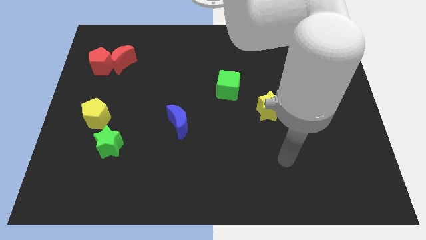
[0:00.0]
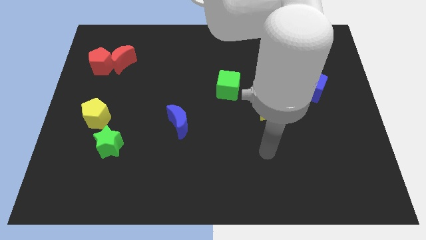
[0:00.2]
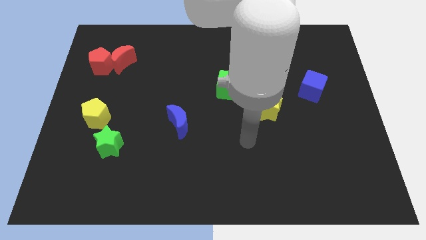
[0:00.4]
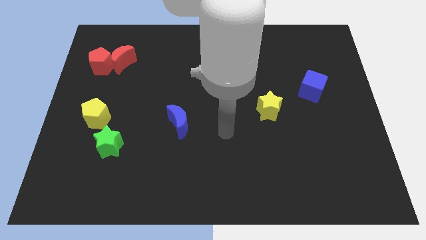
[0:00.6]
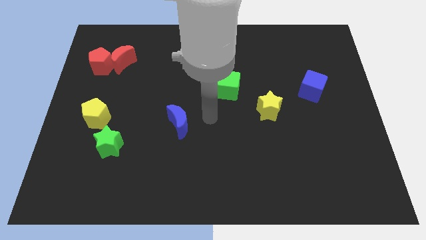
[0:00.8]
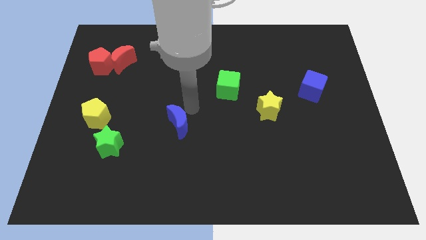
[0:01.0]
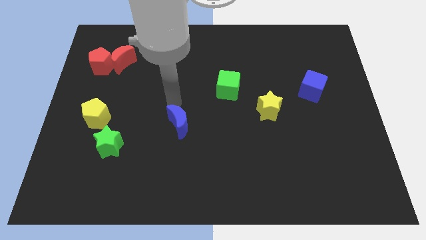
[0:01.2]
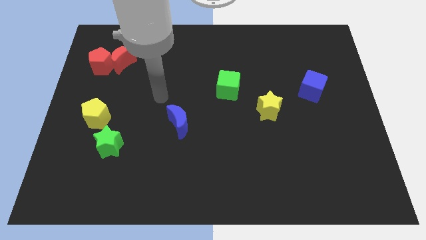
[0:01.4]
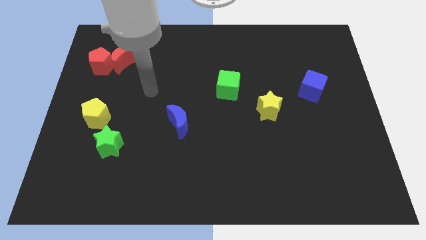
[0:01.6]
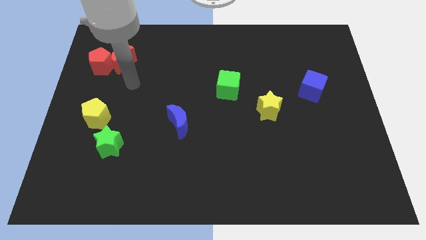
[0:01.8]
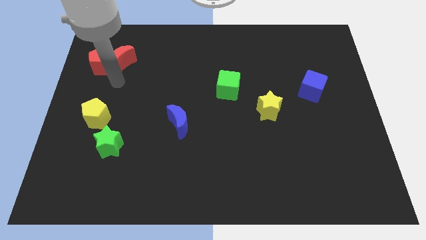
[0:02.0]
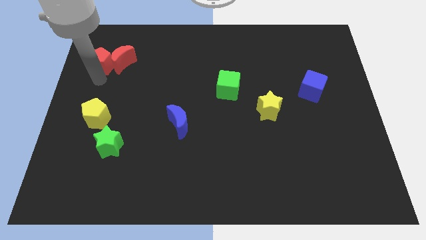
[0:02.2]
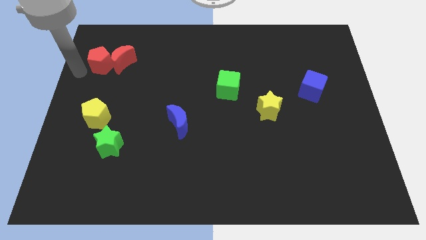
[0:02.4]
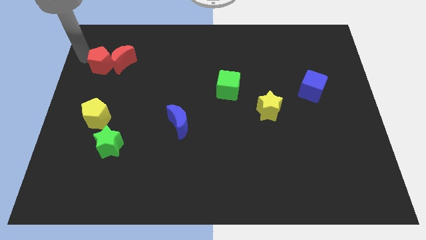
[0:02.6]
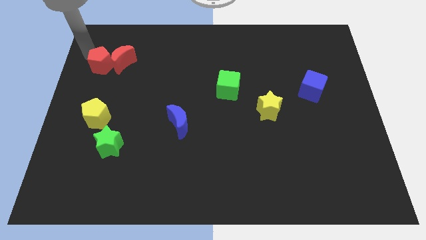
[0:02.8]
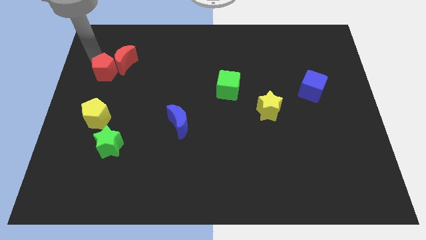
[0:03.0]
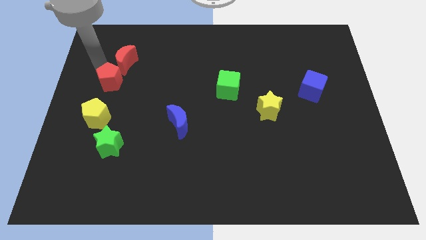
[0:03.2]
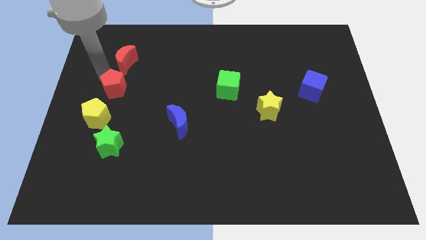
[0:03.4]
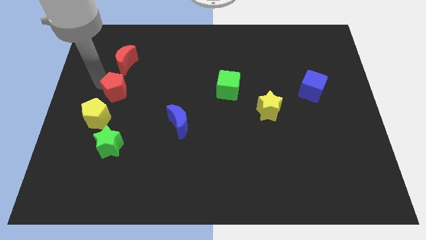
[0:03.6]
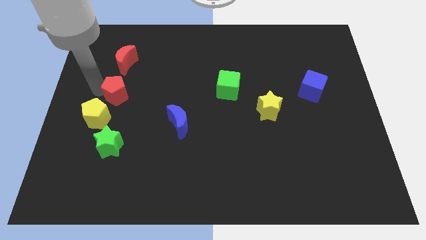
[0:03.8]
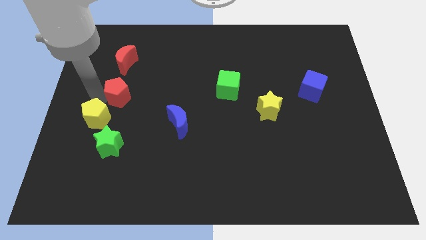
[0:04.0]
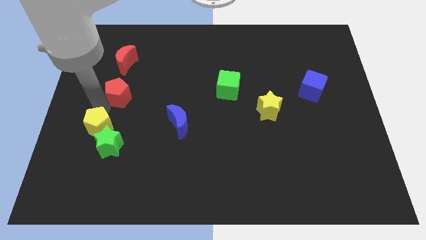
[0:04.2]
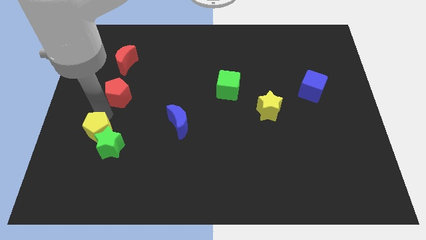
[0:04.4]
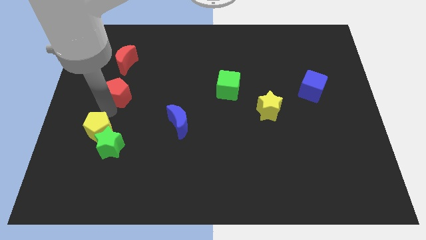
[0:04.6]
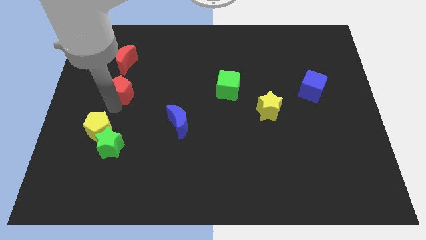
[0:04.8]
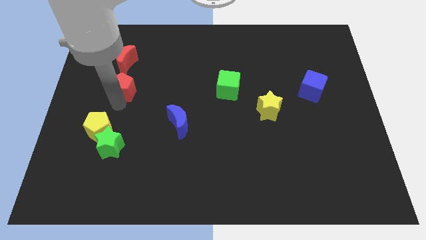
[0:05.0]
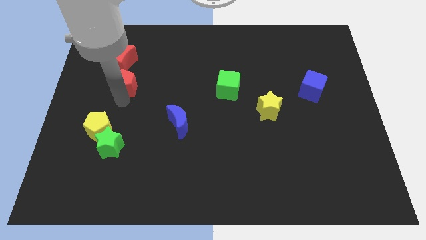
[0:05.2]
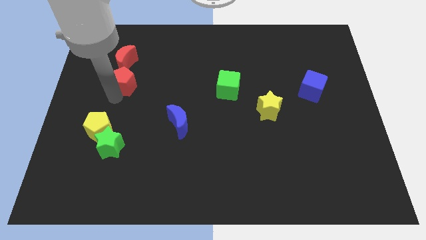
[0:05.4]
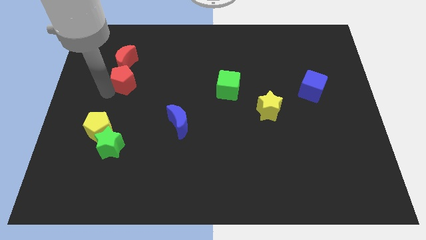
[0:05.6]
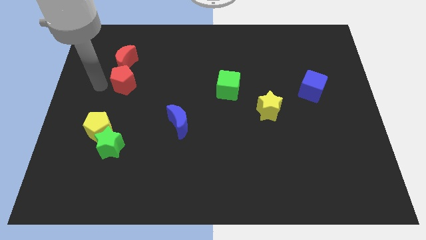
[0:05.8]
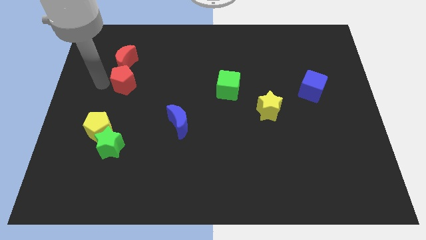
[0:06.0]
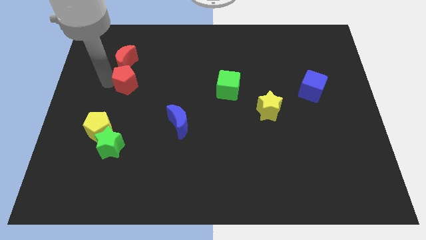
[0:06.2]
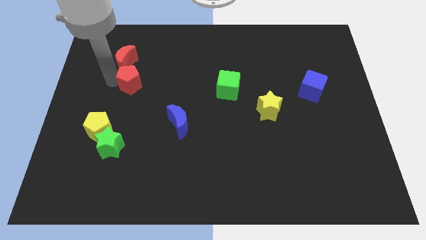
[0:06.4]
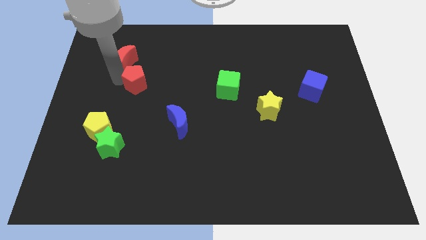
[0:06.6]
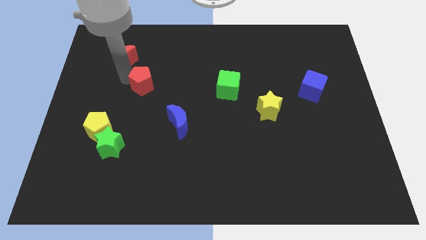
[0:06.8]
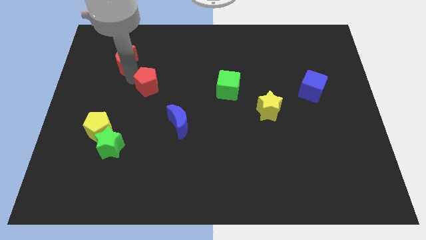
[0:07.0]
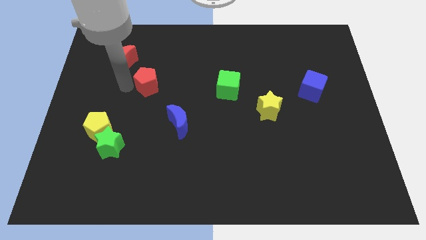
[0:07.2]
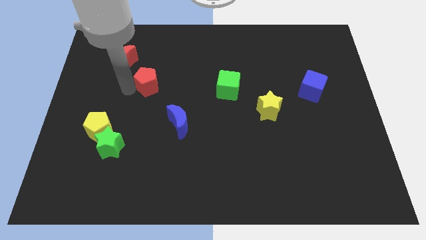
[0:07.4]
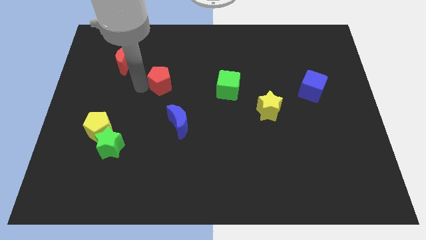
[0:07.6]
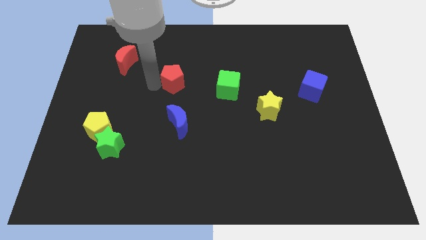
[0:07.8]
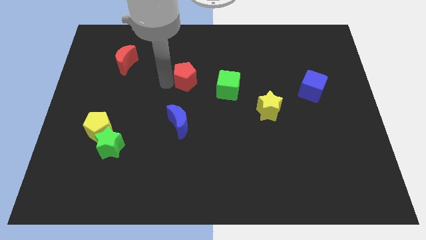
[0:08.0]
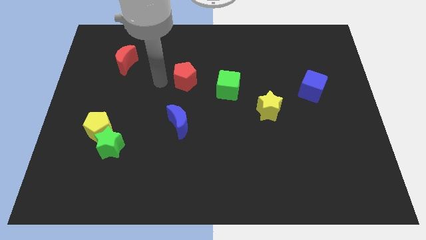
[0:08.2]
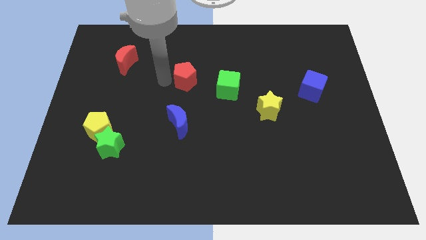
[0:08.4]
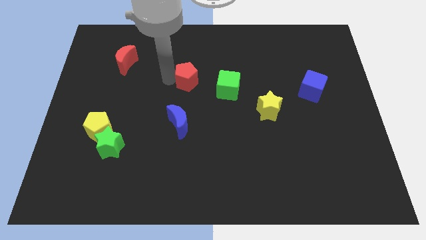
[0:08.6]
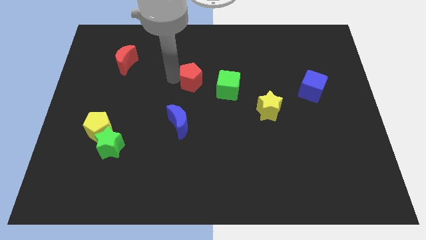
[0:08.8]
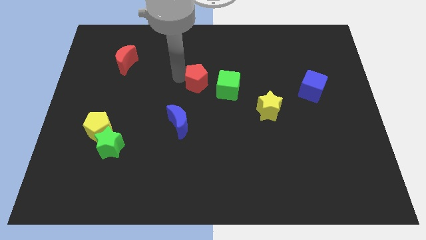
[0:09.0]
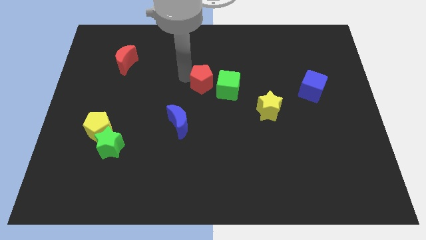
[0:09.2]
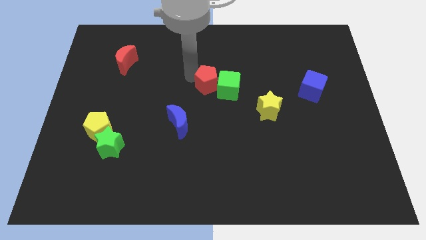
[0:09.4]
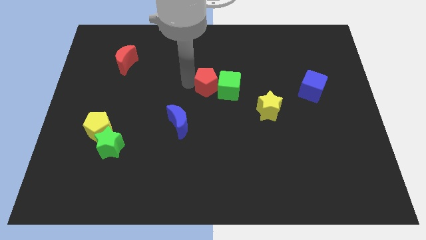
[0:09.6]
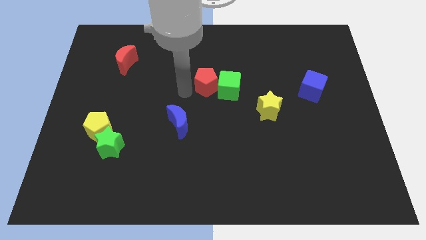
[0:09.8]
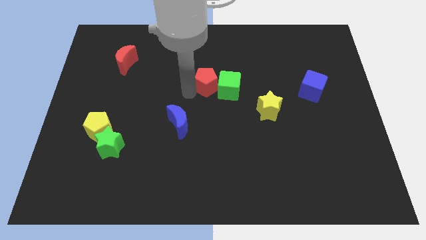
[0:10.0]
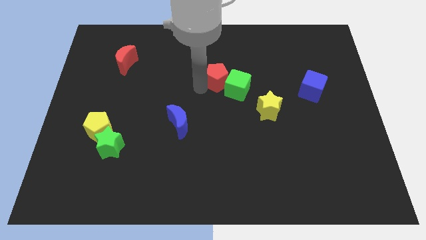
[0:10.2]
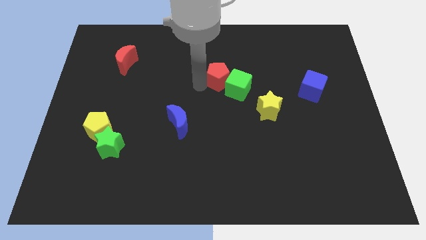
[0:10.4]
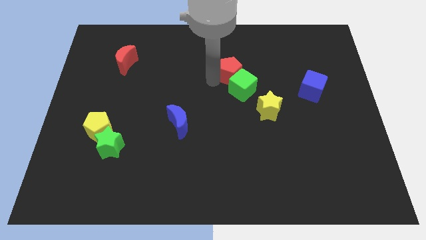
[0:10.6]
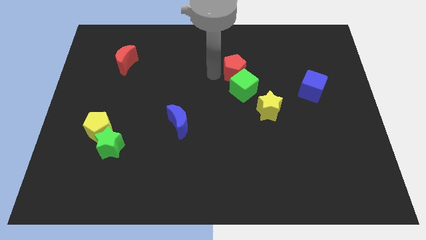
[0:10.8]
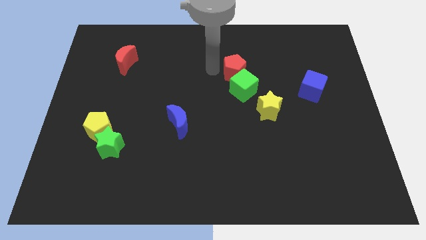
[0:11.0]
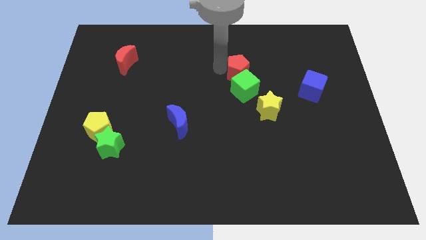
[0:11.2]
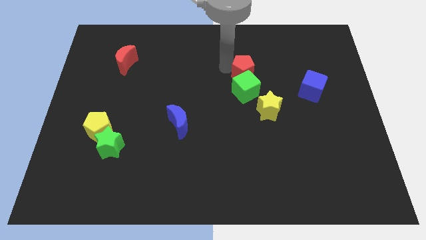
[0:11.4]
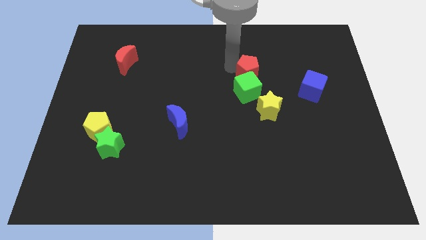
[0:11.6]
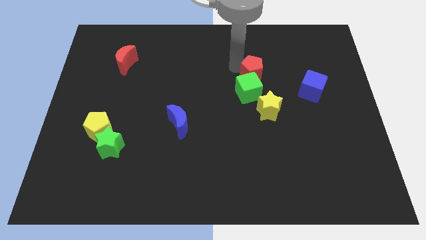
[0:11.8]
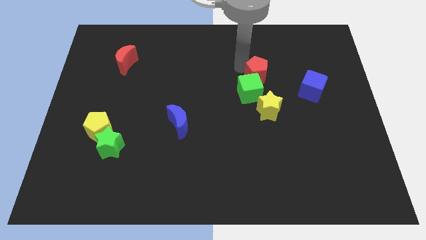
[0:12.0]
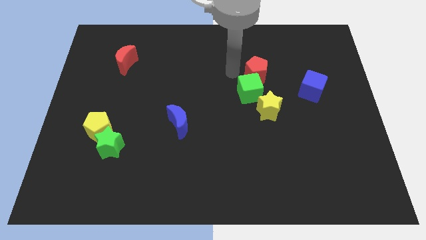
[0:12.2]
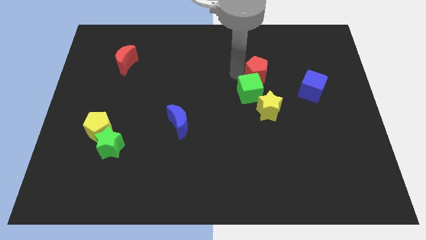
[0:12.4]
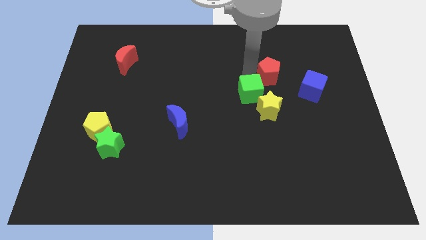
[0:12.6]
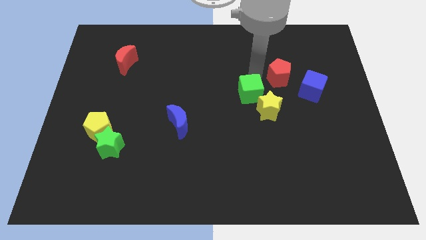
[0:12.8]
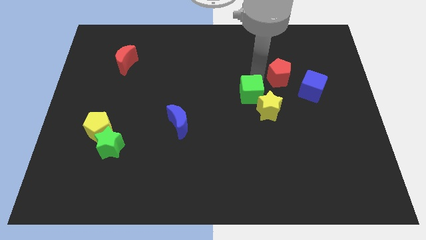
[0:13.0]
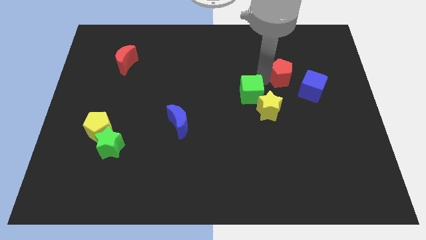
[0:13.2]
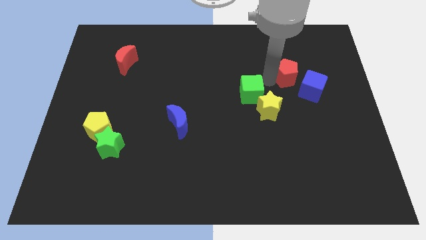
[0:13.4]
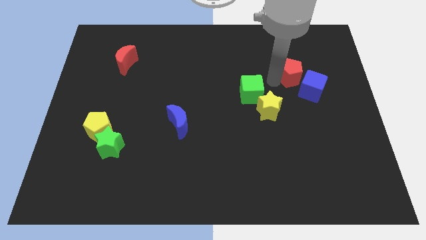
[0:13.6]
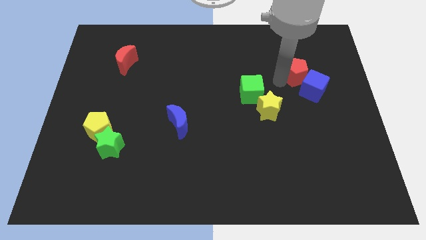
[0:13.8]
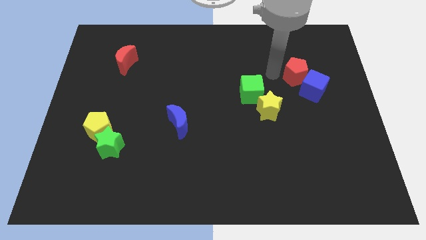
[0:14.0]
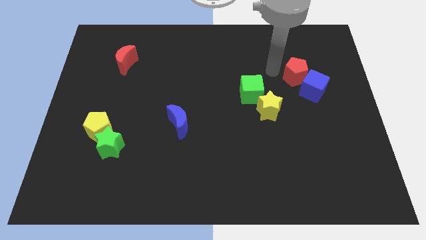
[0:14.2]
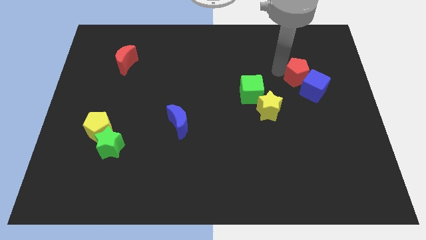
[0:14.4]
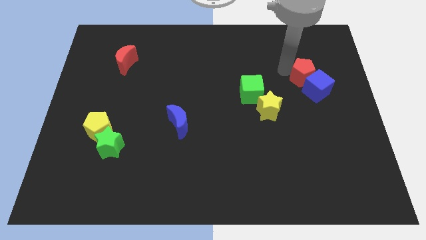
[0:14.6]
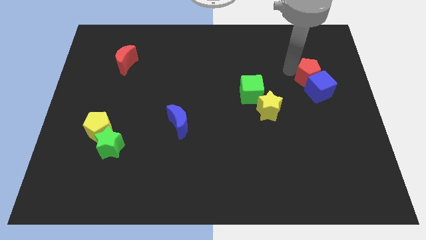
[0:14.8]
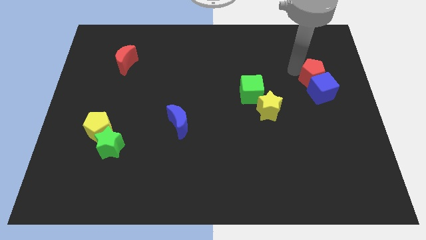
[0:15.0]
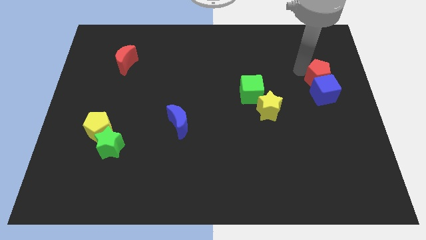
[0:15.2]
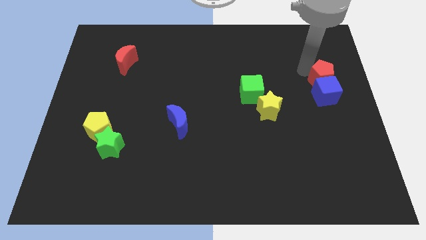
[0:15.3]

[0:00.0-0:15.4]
put the red pentagon to the right side of the board

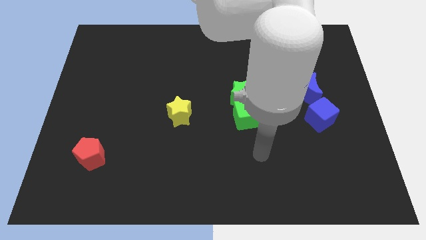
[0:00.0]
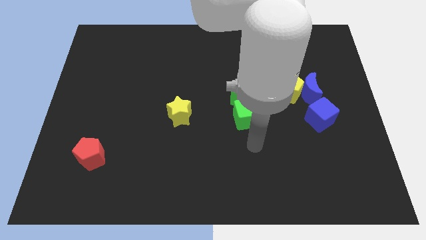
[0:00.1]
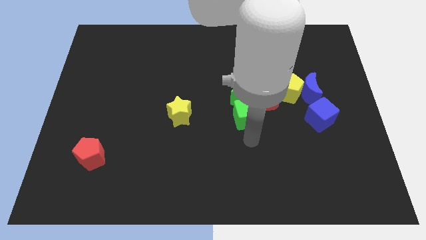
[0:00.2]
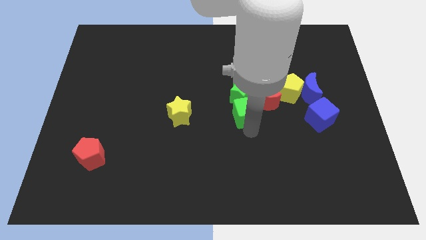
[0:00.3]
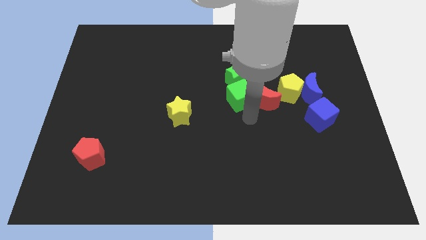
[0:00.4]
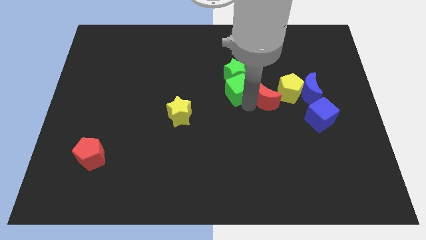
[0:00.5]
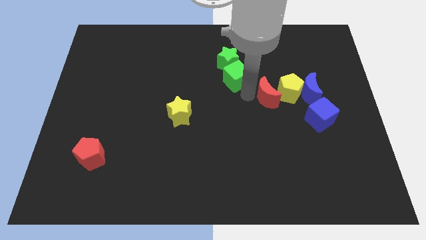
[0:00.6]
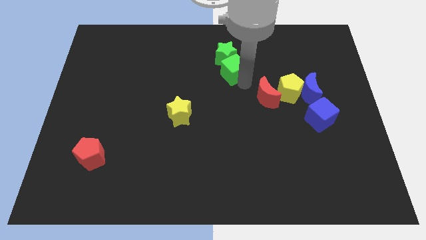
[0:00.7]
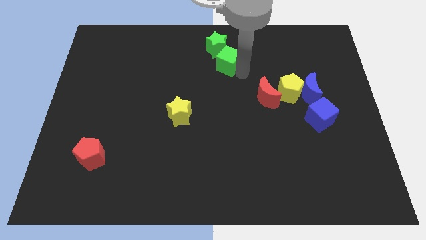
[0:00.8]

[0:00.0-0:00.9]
slide the green star to the towards your base
